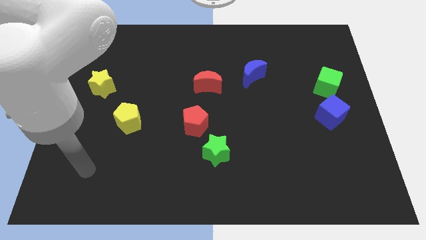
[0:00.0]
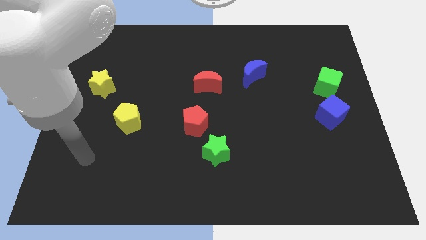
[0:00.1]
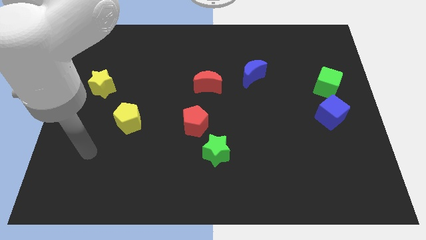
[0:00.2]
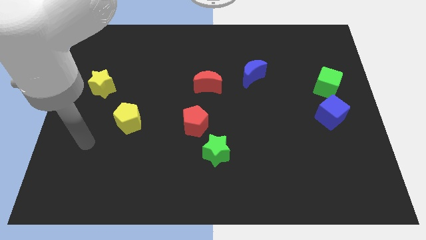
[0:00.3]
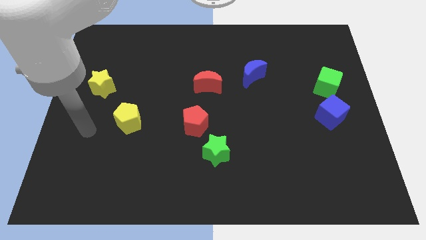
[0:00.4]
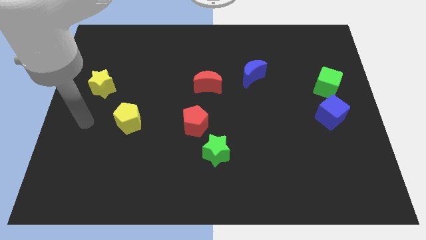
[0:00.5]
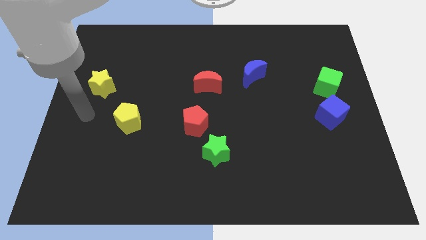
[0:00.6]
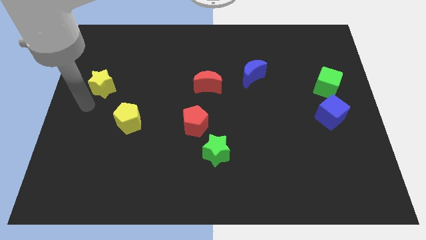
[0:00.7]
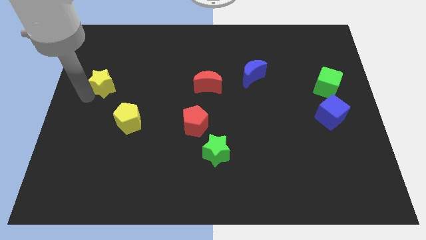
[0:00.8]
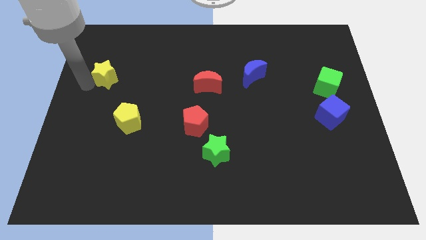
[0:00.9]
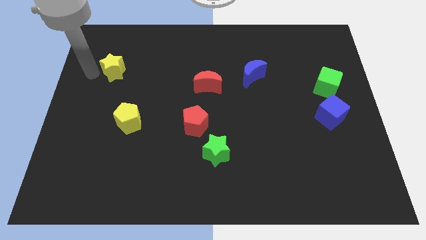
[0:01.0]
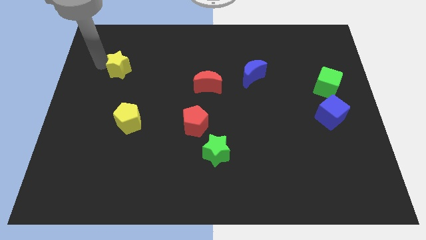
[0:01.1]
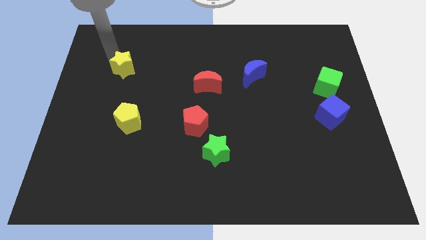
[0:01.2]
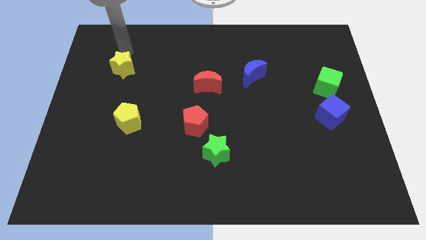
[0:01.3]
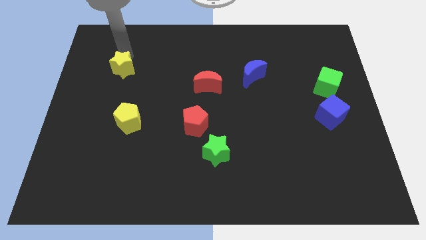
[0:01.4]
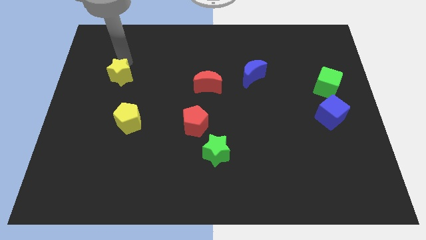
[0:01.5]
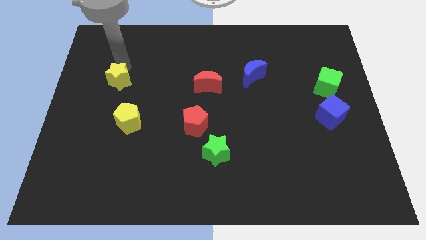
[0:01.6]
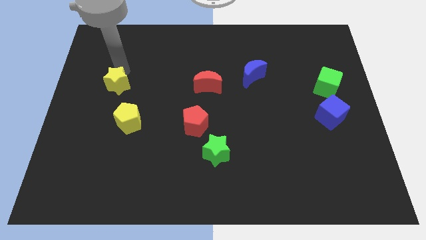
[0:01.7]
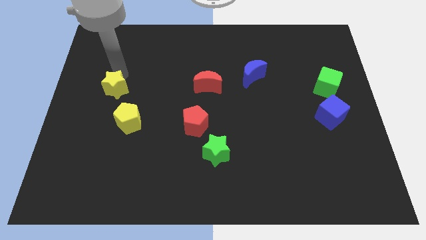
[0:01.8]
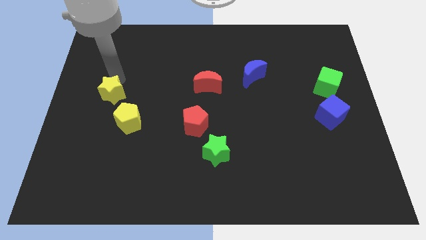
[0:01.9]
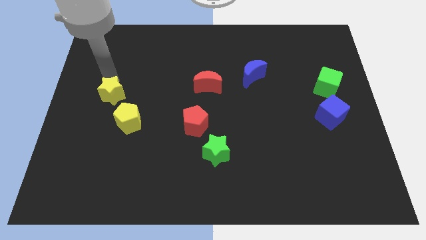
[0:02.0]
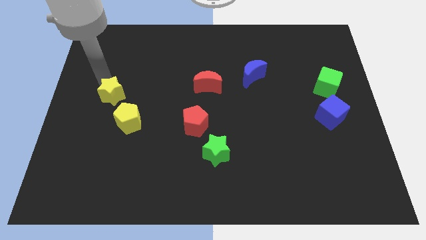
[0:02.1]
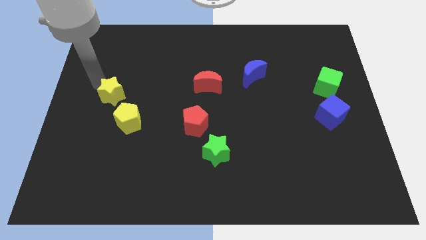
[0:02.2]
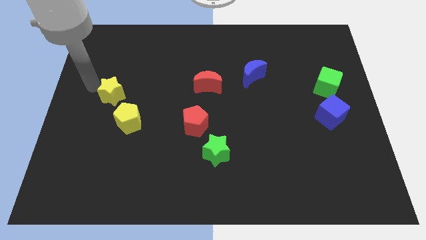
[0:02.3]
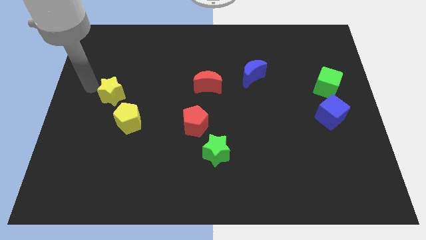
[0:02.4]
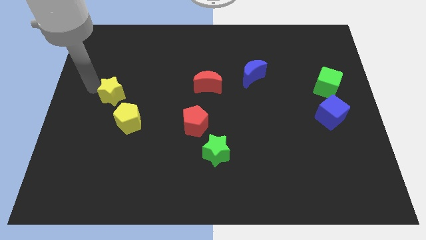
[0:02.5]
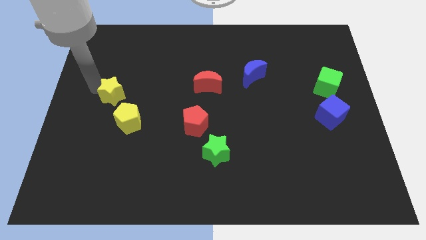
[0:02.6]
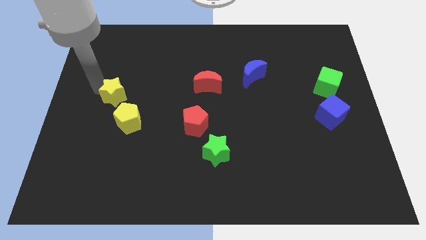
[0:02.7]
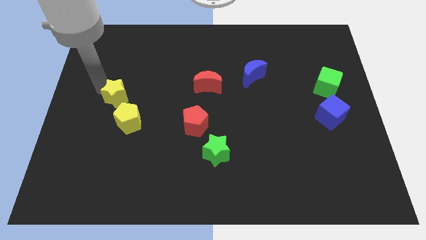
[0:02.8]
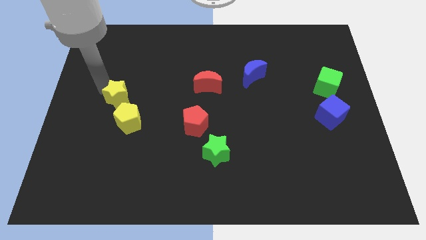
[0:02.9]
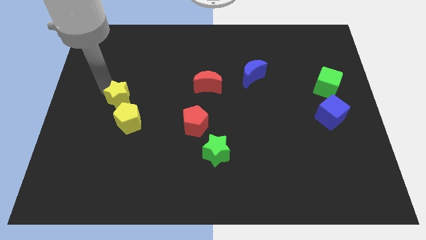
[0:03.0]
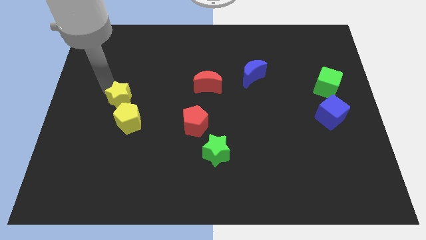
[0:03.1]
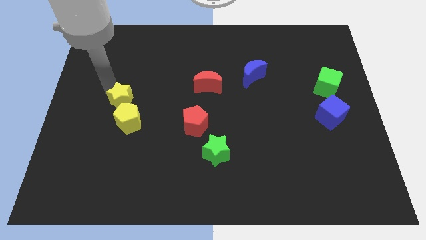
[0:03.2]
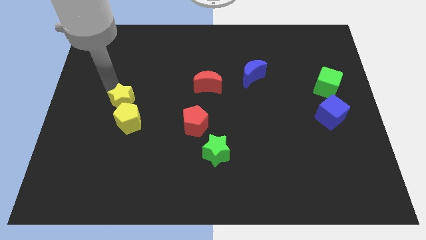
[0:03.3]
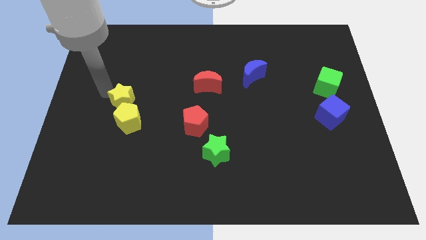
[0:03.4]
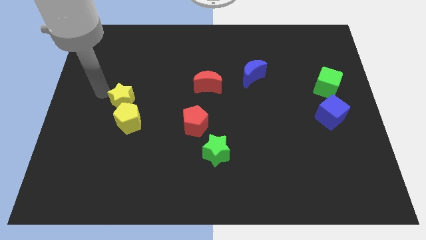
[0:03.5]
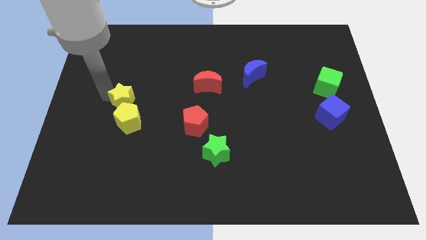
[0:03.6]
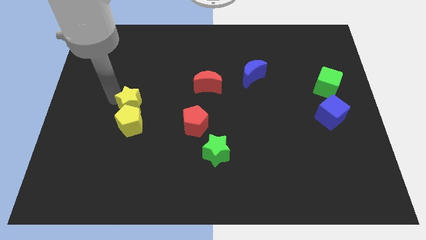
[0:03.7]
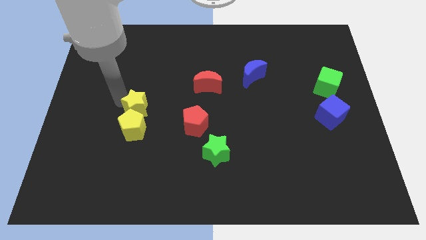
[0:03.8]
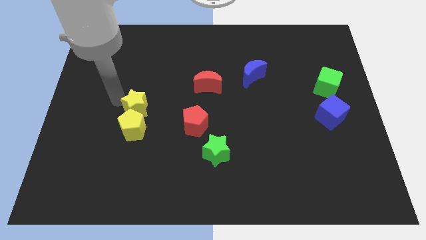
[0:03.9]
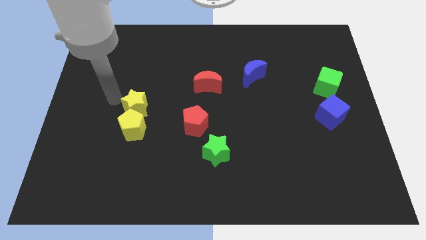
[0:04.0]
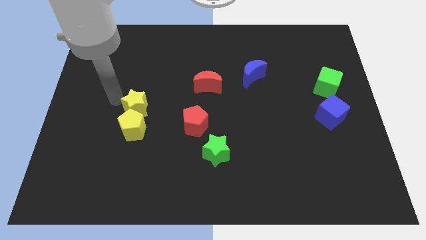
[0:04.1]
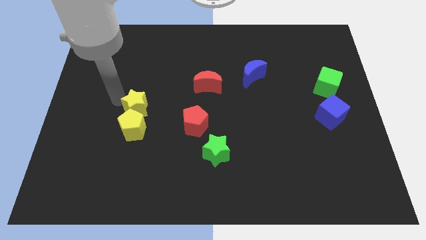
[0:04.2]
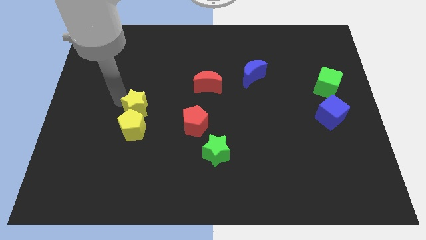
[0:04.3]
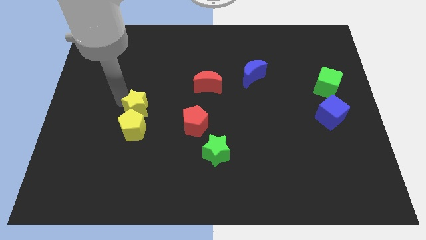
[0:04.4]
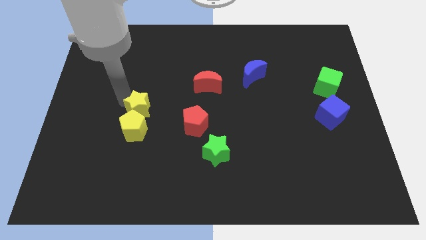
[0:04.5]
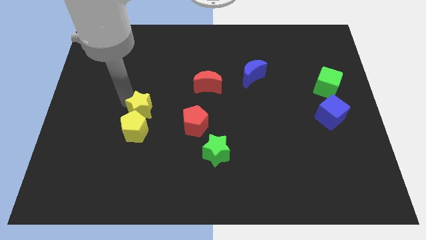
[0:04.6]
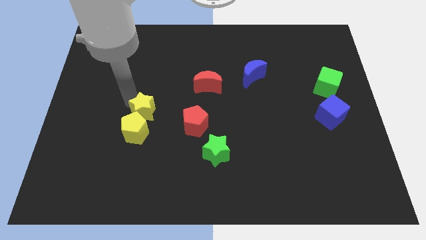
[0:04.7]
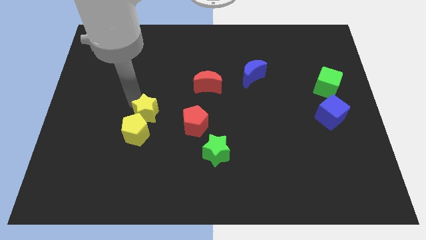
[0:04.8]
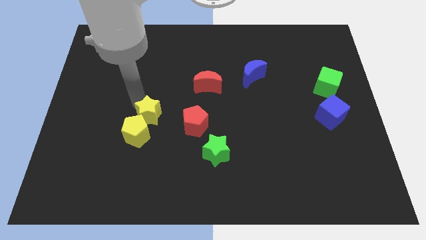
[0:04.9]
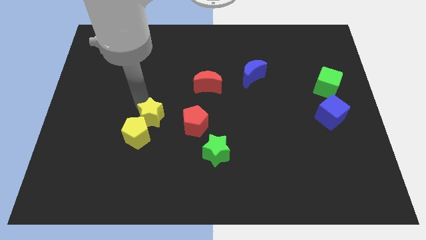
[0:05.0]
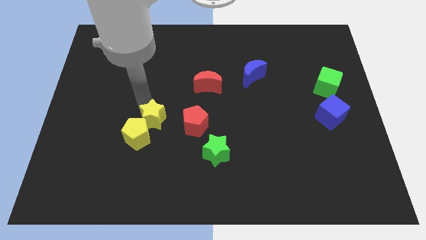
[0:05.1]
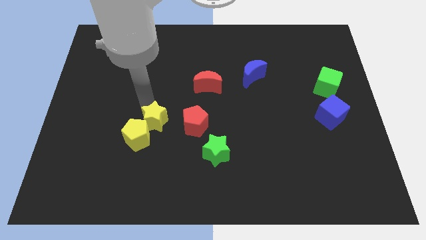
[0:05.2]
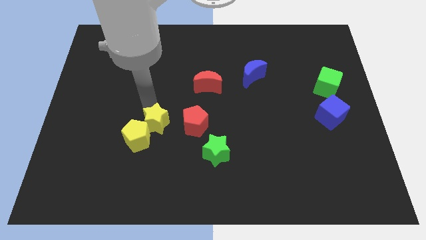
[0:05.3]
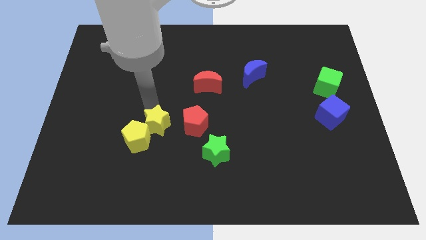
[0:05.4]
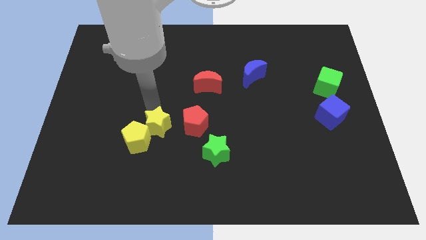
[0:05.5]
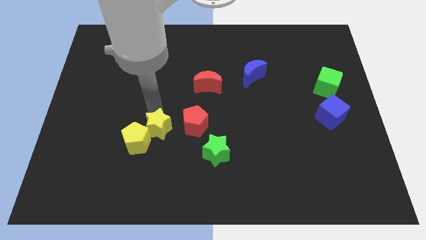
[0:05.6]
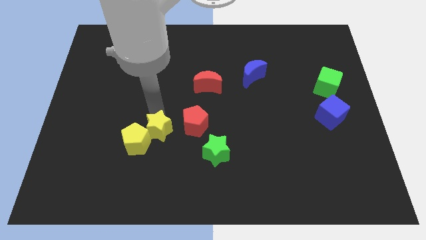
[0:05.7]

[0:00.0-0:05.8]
slide the yellow star diagonally down and to the right

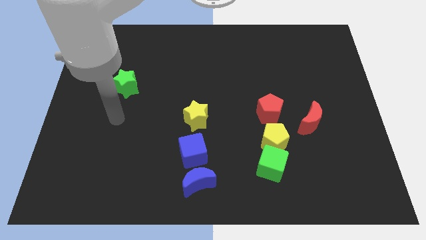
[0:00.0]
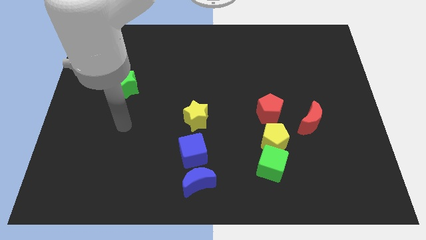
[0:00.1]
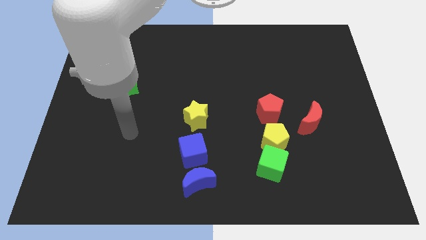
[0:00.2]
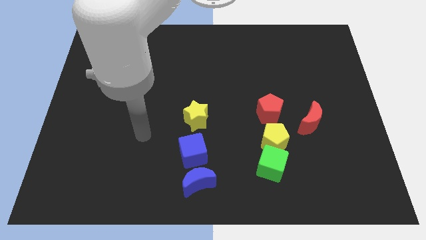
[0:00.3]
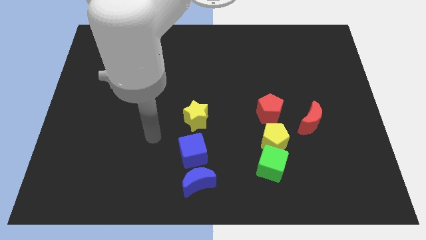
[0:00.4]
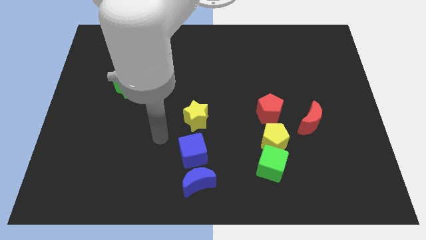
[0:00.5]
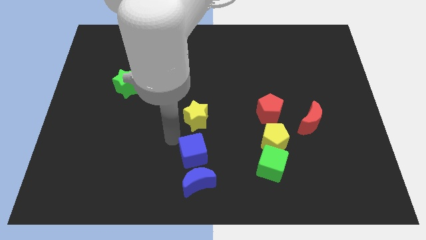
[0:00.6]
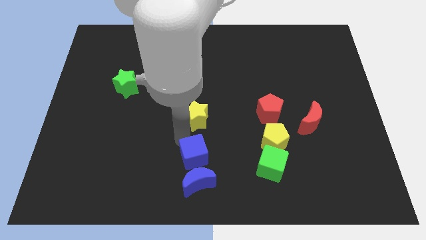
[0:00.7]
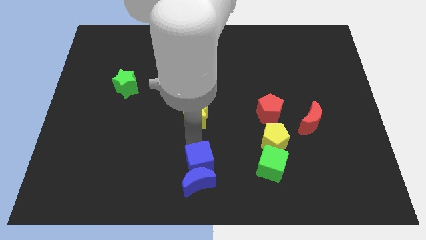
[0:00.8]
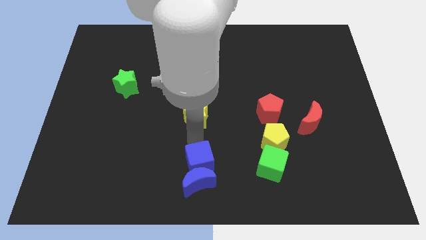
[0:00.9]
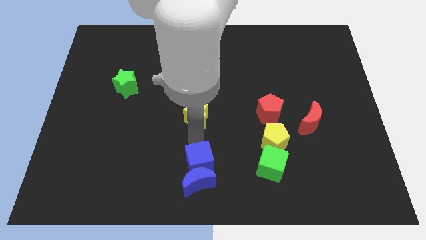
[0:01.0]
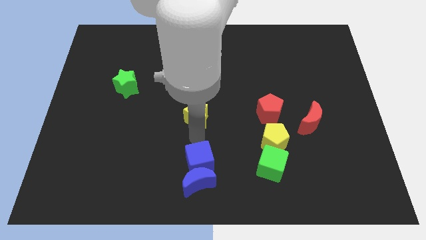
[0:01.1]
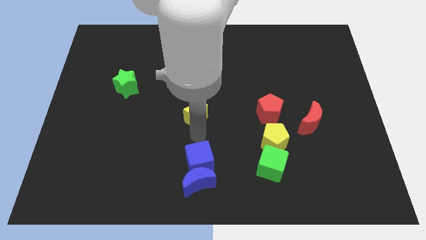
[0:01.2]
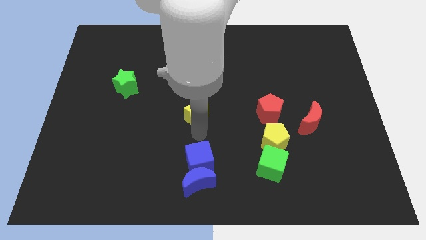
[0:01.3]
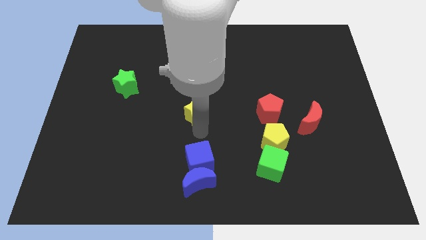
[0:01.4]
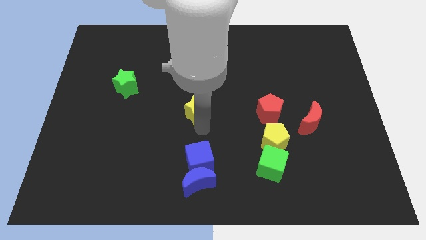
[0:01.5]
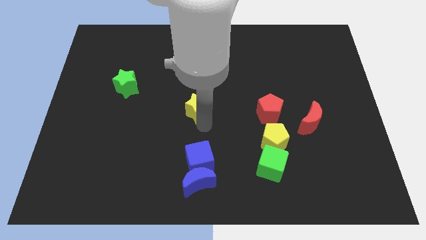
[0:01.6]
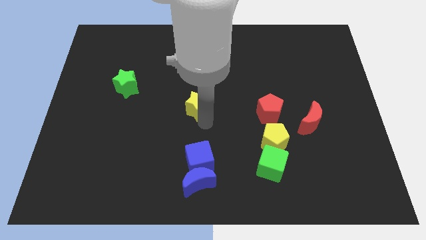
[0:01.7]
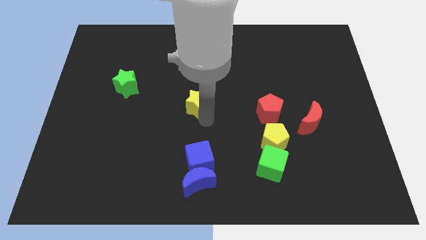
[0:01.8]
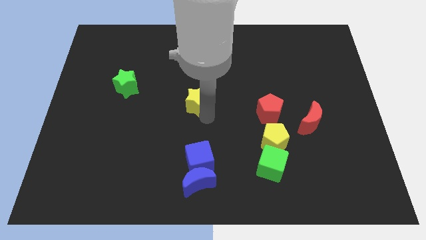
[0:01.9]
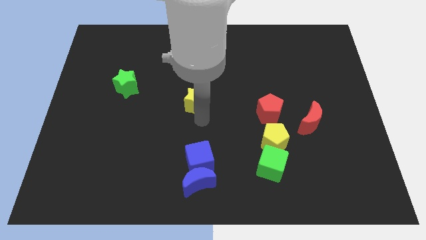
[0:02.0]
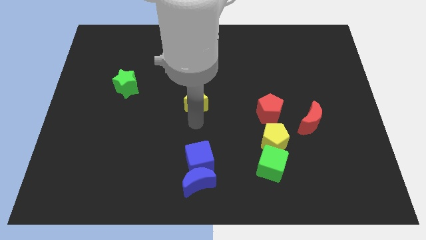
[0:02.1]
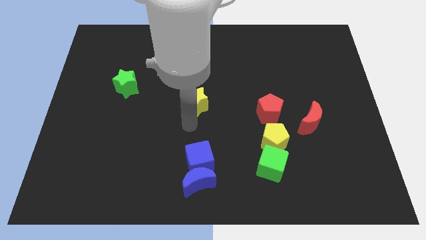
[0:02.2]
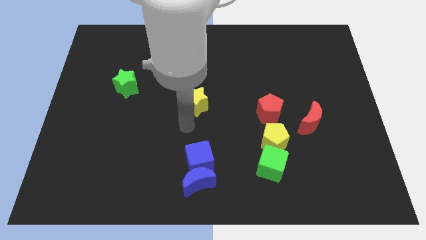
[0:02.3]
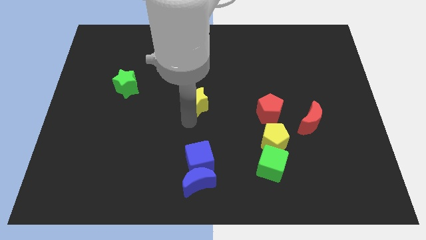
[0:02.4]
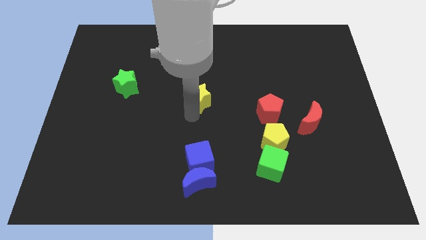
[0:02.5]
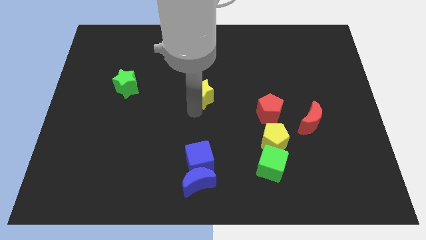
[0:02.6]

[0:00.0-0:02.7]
push the yellow star up a little bit
